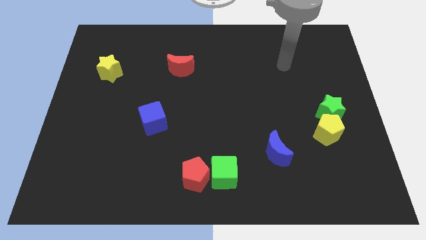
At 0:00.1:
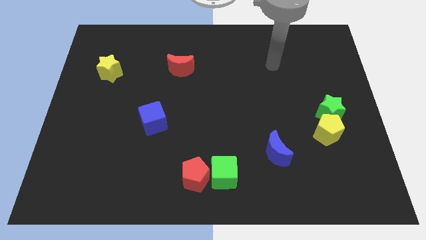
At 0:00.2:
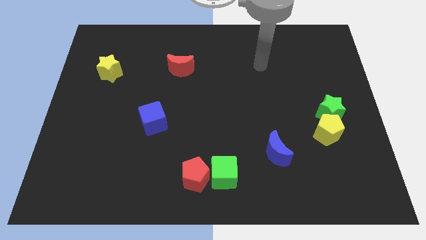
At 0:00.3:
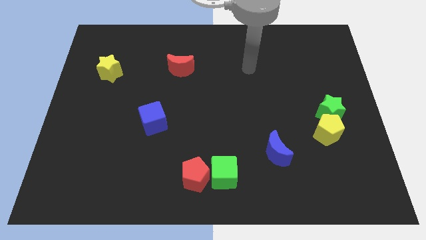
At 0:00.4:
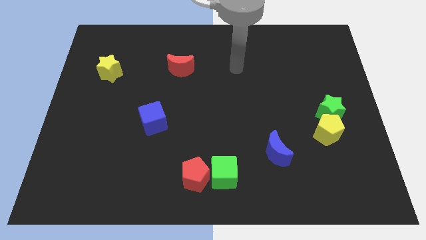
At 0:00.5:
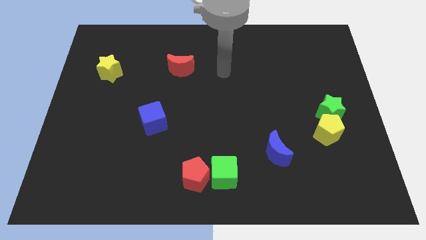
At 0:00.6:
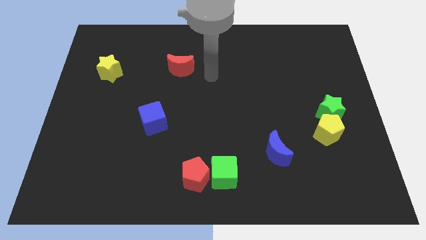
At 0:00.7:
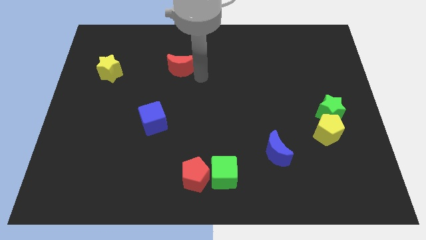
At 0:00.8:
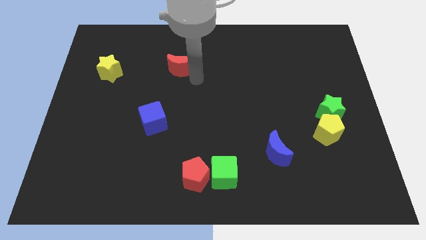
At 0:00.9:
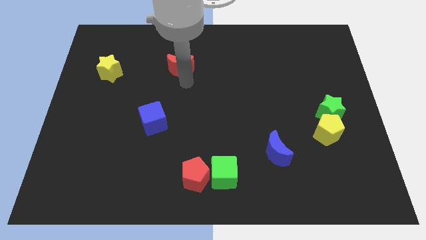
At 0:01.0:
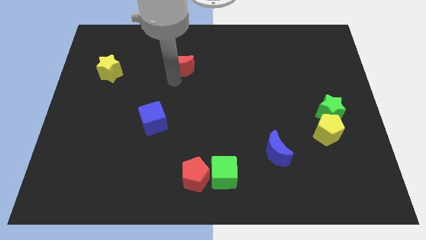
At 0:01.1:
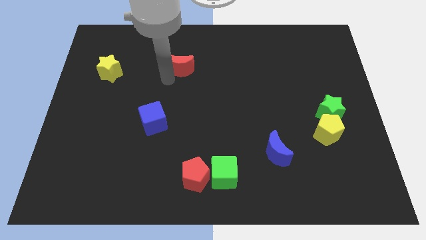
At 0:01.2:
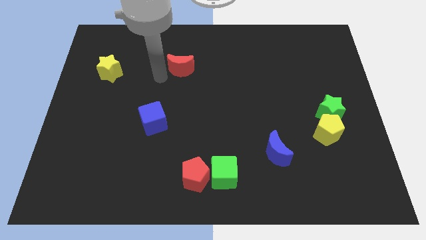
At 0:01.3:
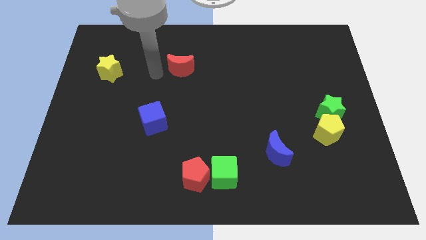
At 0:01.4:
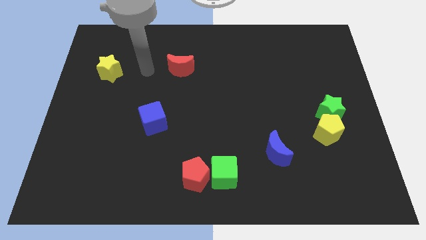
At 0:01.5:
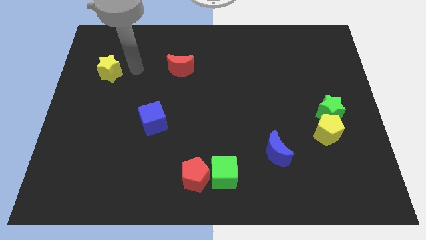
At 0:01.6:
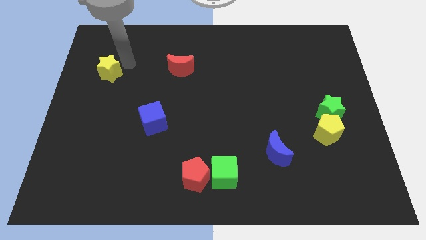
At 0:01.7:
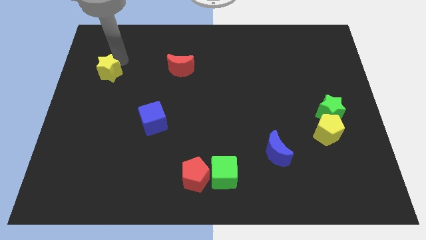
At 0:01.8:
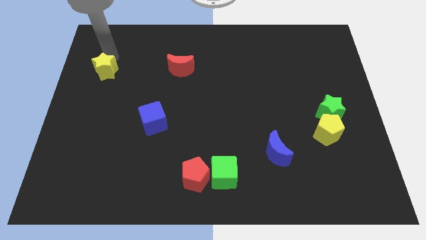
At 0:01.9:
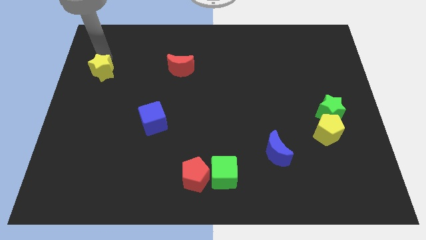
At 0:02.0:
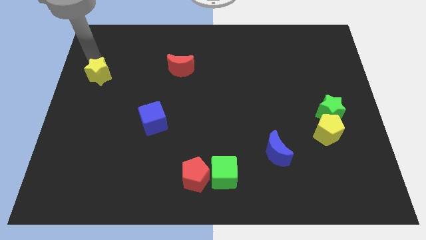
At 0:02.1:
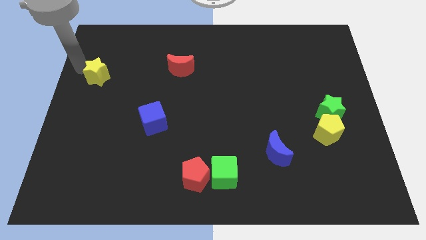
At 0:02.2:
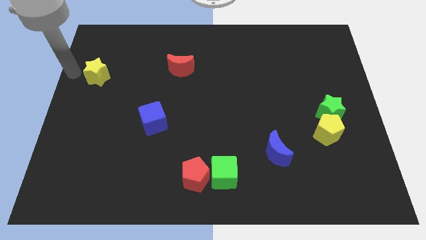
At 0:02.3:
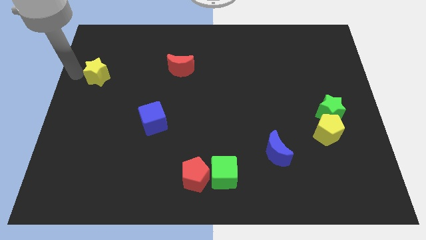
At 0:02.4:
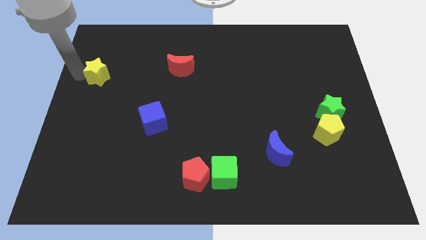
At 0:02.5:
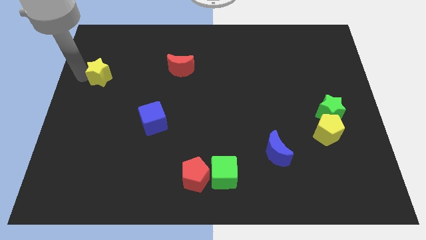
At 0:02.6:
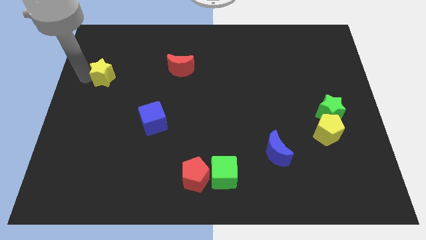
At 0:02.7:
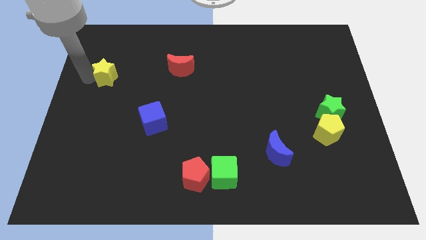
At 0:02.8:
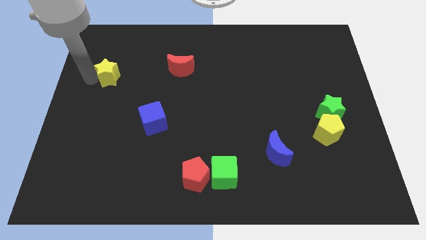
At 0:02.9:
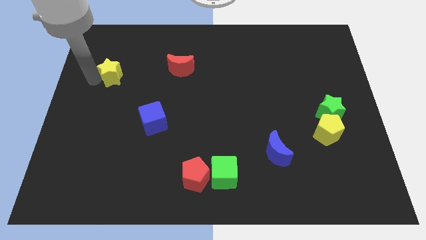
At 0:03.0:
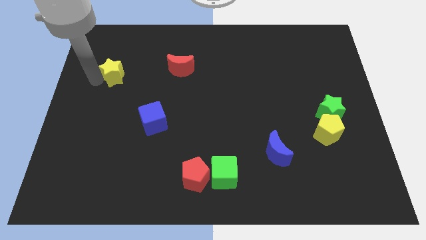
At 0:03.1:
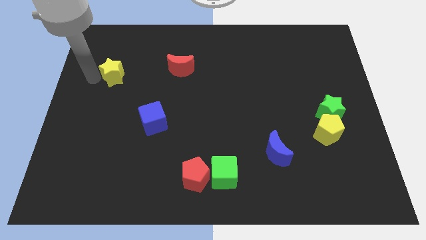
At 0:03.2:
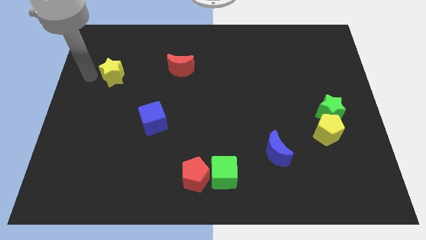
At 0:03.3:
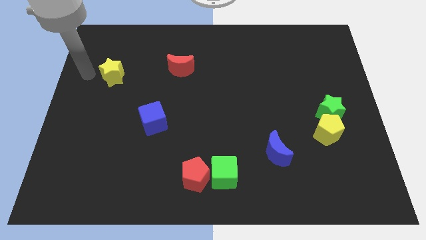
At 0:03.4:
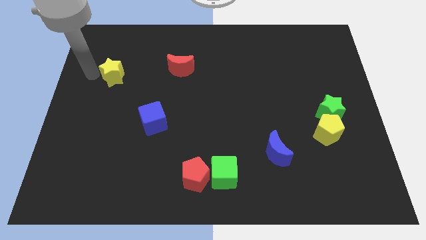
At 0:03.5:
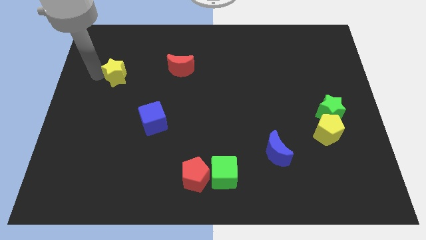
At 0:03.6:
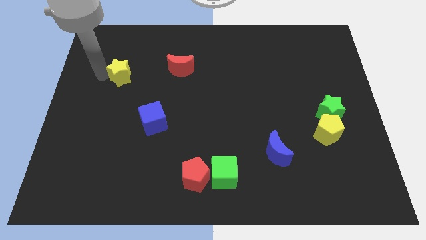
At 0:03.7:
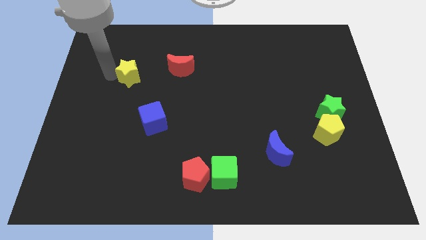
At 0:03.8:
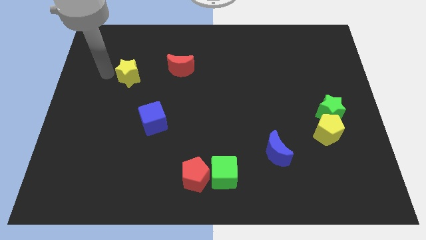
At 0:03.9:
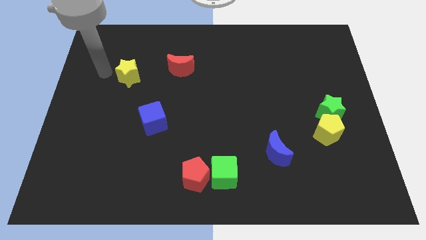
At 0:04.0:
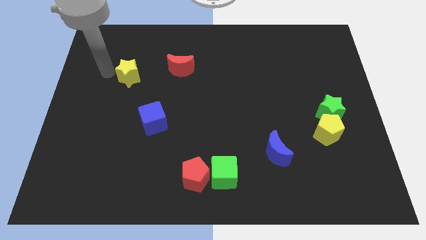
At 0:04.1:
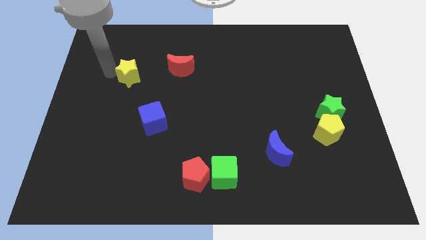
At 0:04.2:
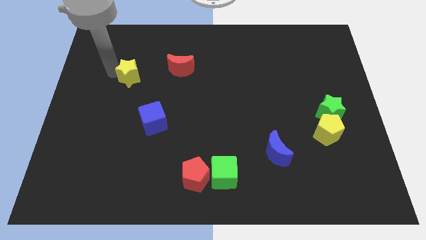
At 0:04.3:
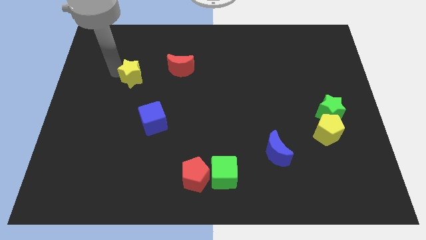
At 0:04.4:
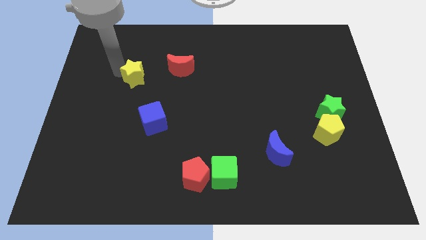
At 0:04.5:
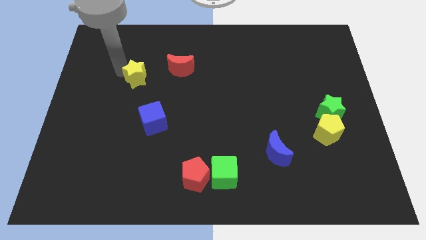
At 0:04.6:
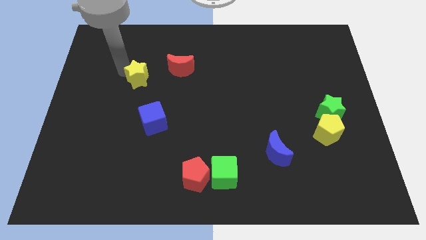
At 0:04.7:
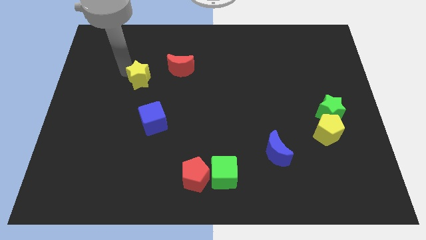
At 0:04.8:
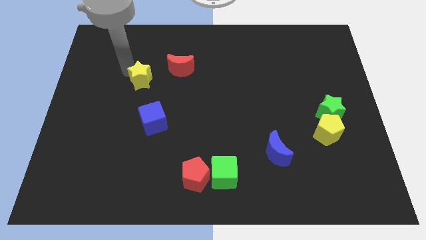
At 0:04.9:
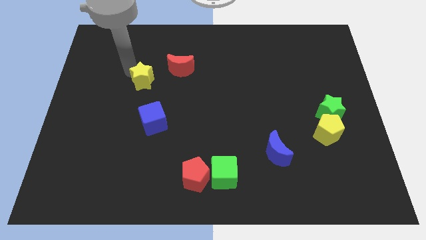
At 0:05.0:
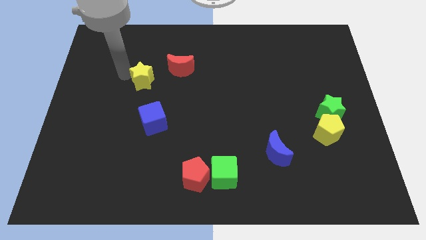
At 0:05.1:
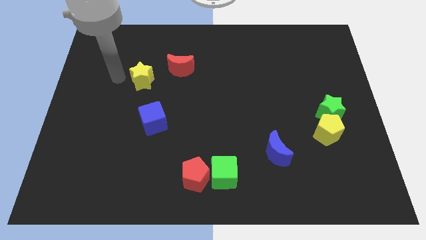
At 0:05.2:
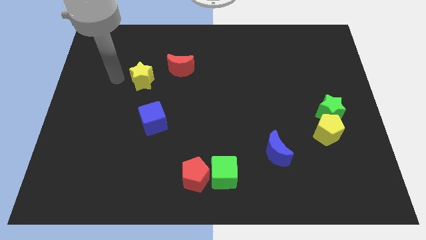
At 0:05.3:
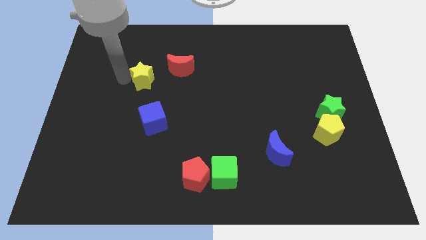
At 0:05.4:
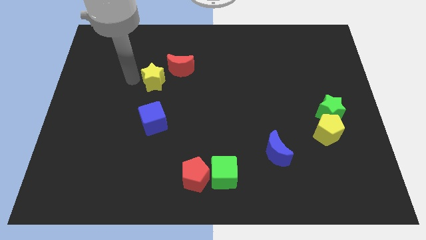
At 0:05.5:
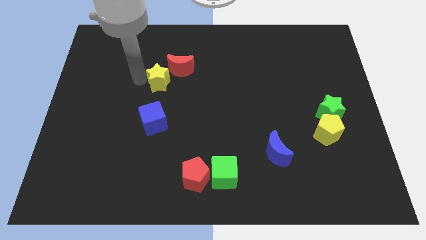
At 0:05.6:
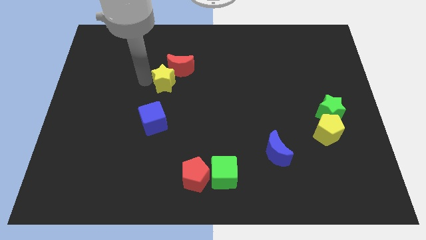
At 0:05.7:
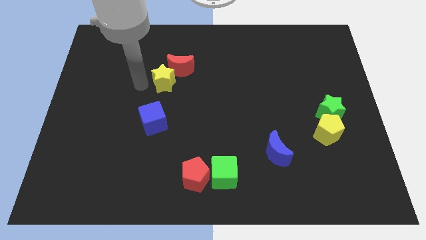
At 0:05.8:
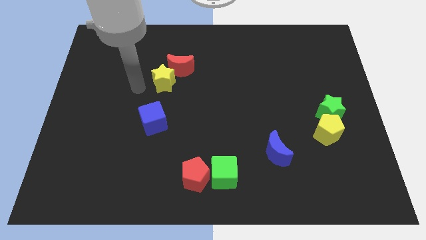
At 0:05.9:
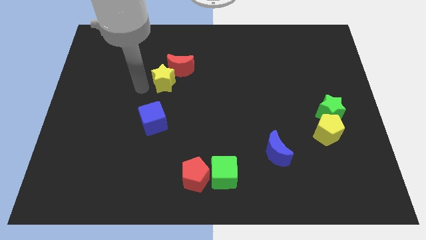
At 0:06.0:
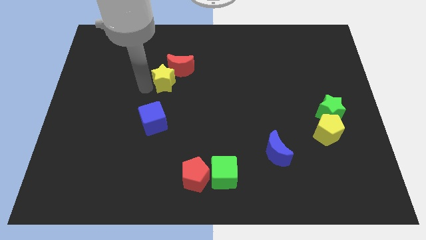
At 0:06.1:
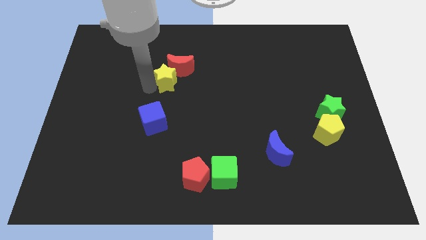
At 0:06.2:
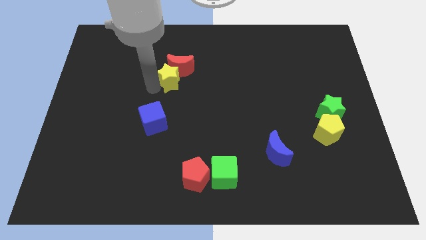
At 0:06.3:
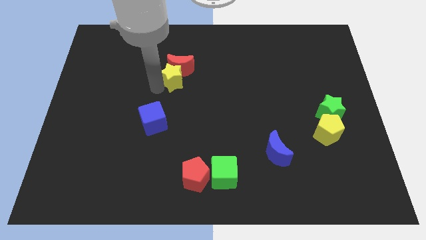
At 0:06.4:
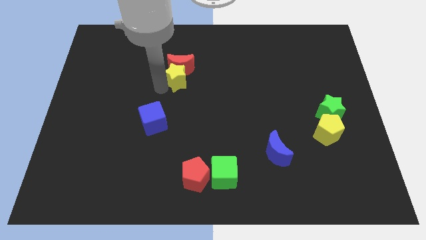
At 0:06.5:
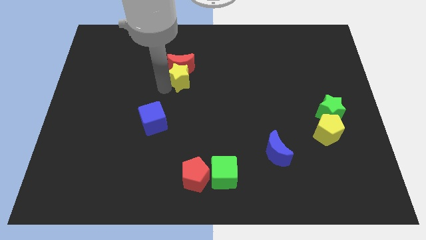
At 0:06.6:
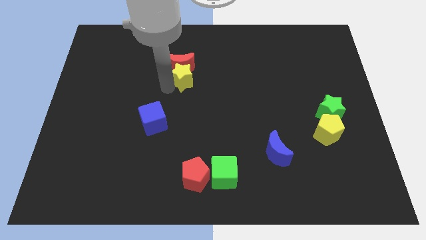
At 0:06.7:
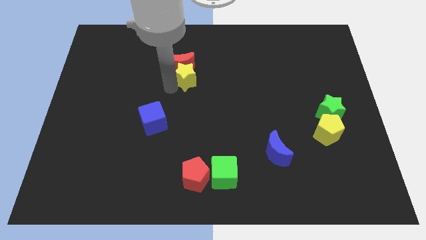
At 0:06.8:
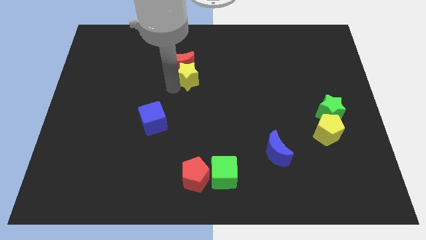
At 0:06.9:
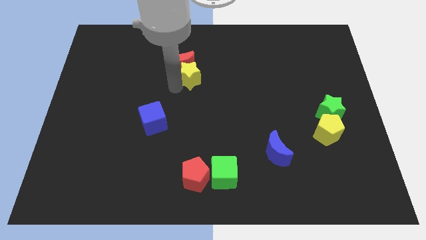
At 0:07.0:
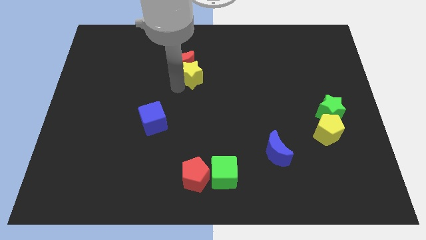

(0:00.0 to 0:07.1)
slide the yellow star to the right side of the red moon
